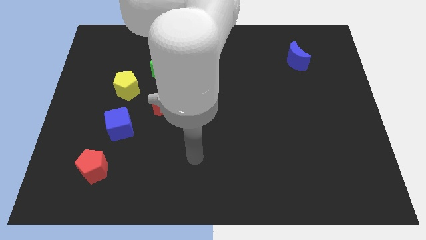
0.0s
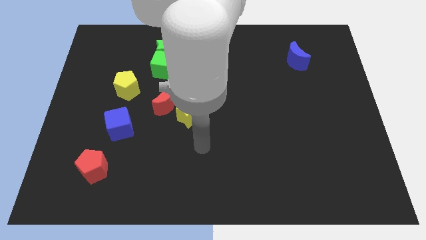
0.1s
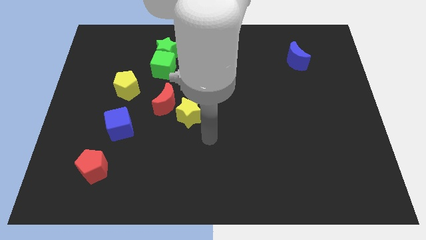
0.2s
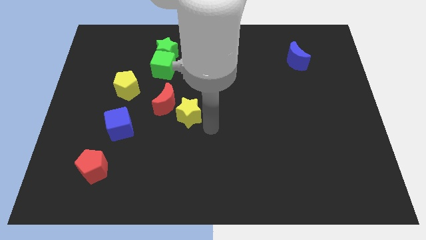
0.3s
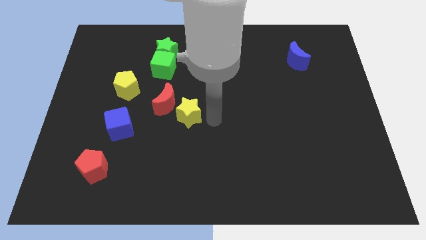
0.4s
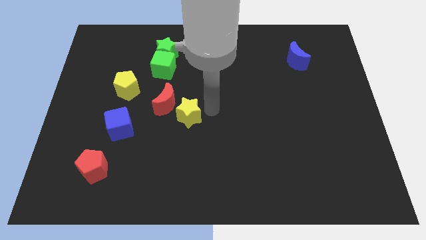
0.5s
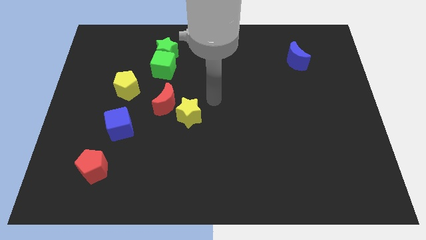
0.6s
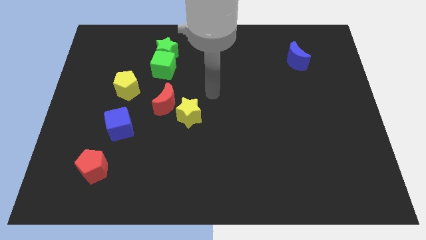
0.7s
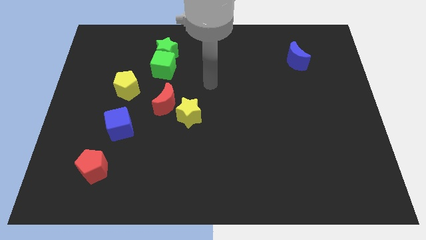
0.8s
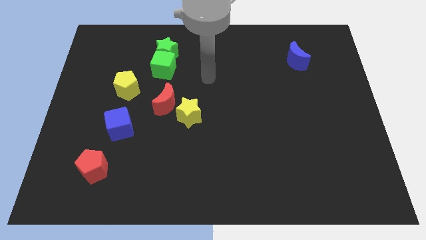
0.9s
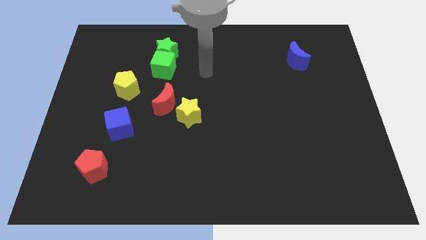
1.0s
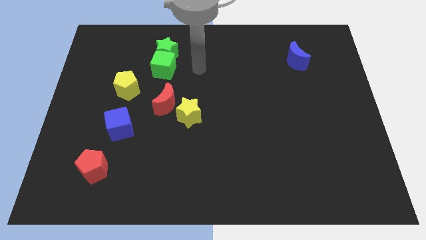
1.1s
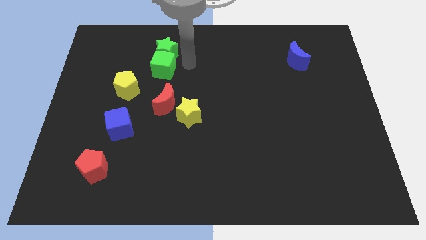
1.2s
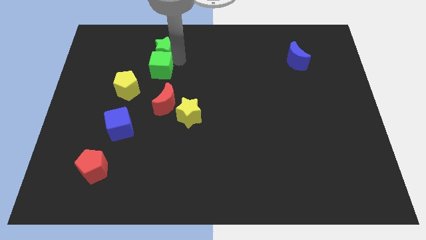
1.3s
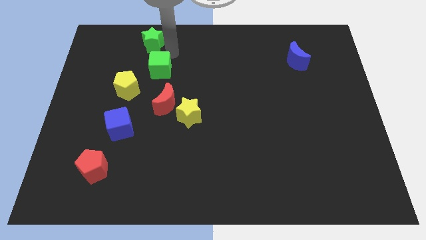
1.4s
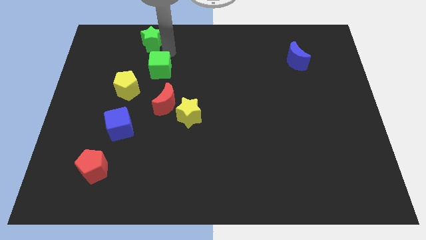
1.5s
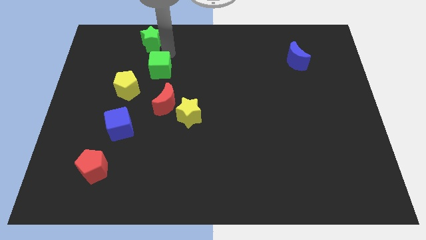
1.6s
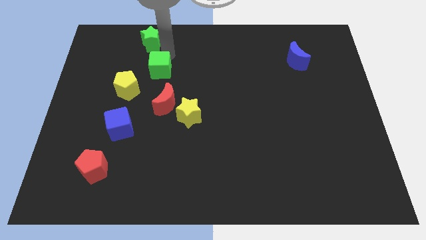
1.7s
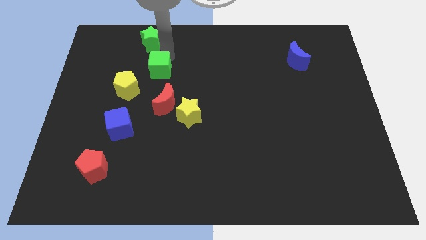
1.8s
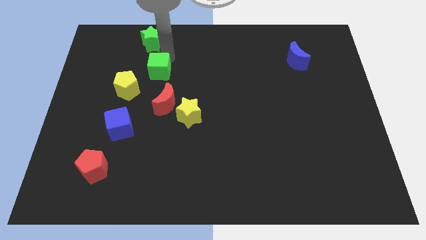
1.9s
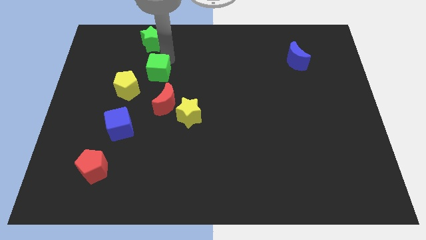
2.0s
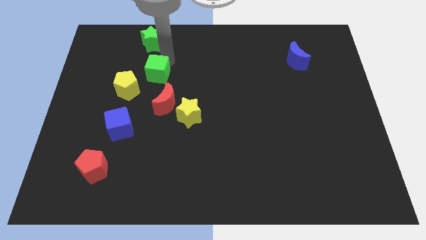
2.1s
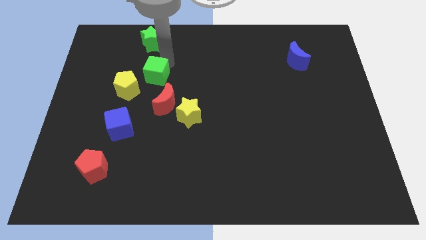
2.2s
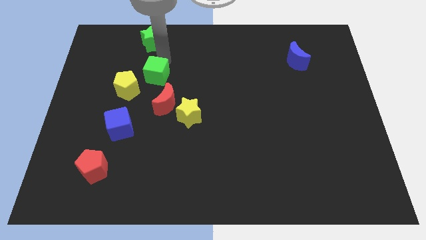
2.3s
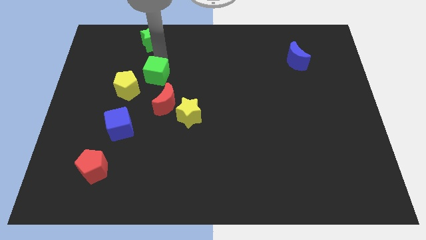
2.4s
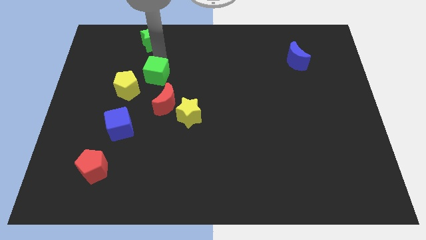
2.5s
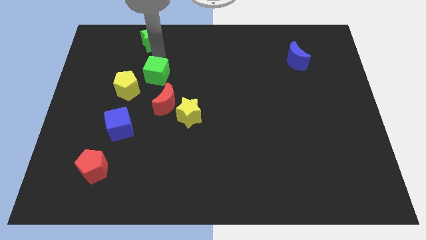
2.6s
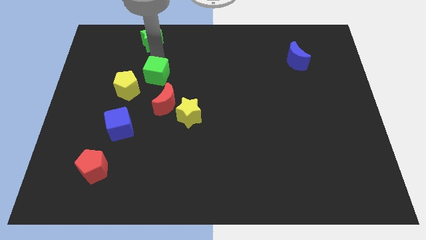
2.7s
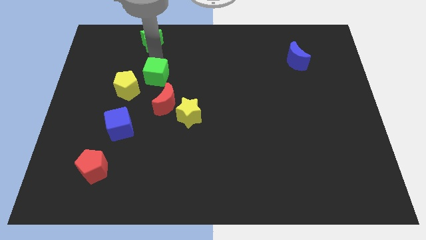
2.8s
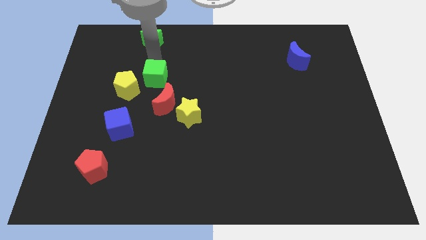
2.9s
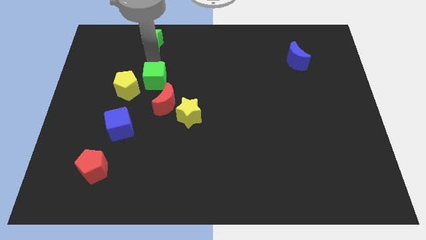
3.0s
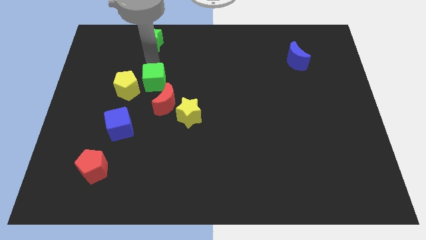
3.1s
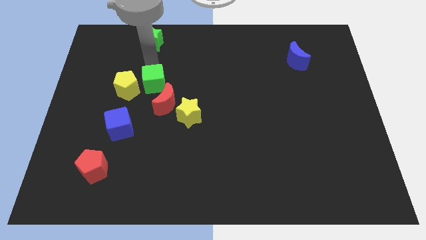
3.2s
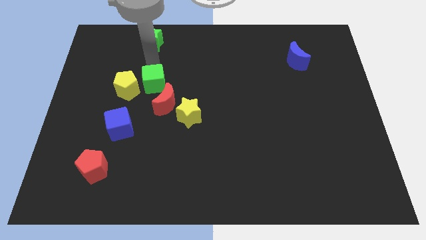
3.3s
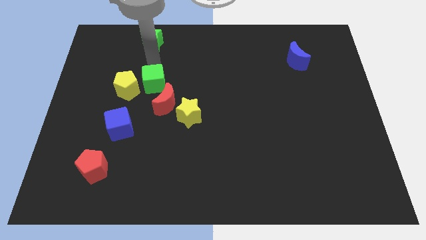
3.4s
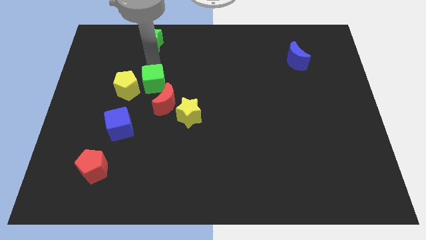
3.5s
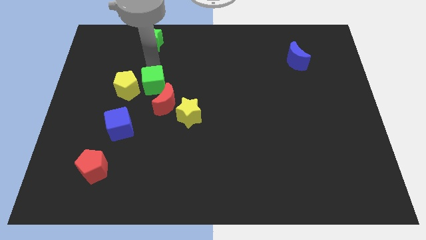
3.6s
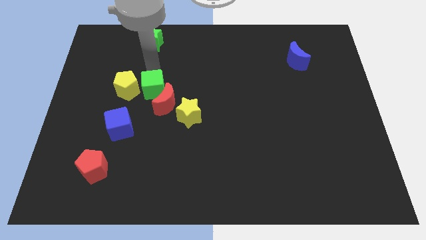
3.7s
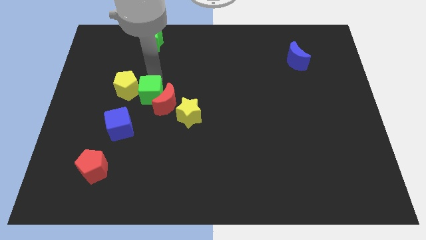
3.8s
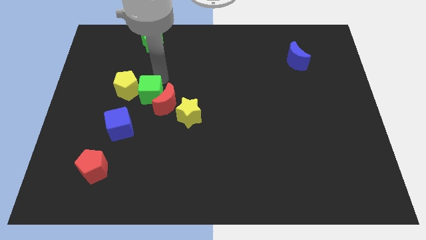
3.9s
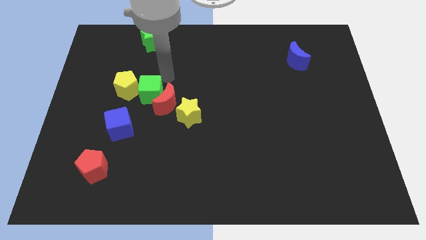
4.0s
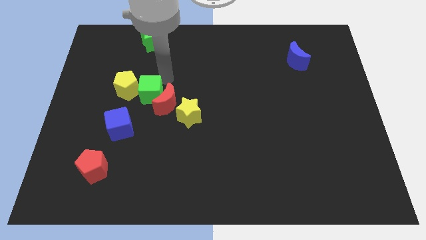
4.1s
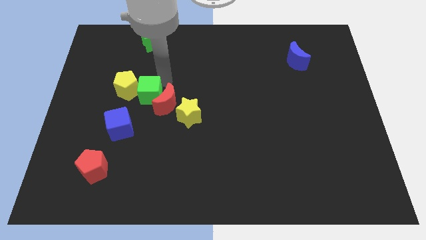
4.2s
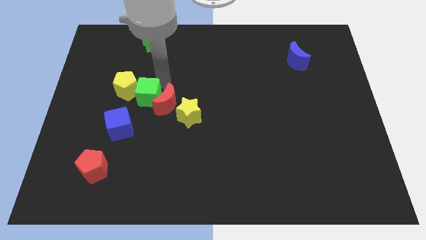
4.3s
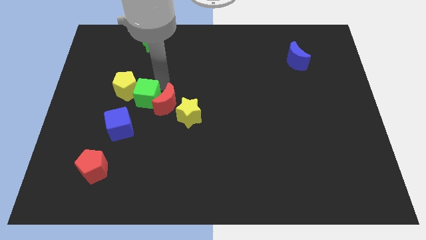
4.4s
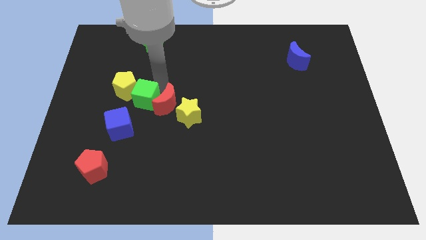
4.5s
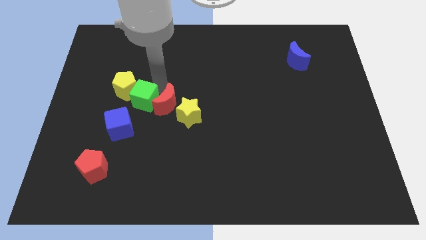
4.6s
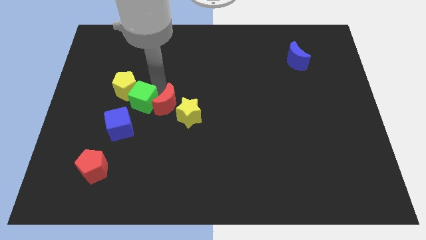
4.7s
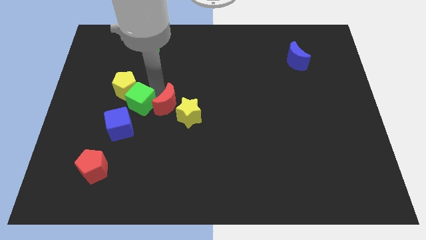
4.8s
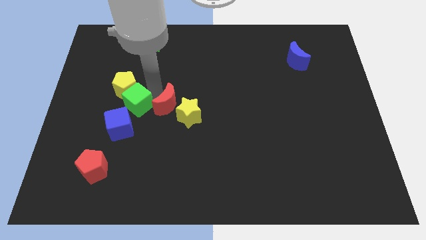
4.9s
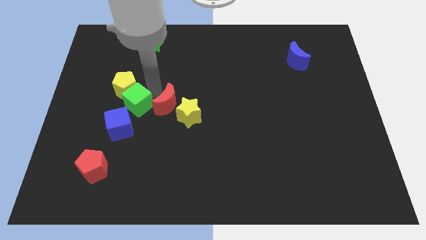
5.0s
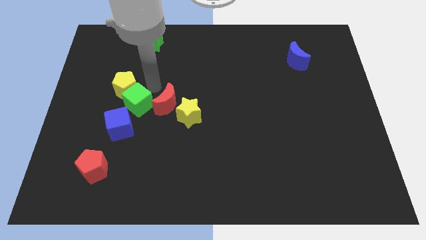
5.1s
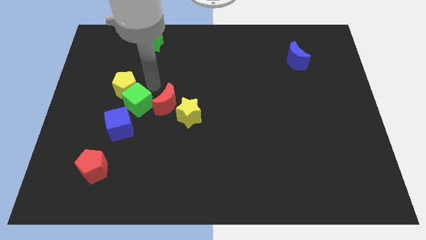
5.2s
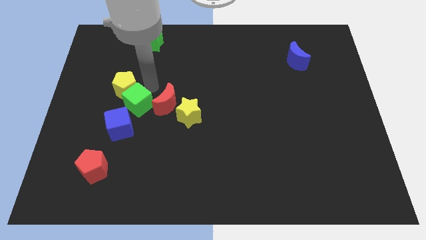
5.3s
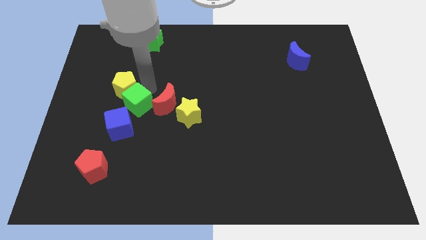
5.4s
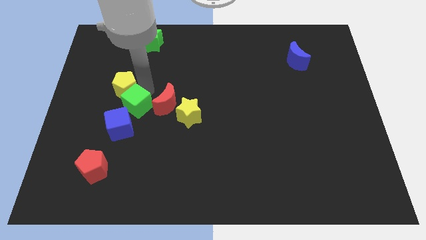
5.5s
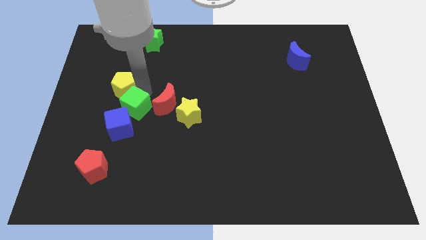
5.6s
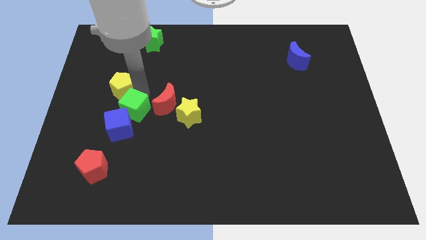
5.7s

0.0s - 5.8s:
put the green cube to the blue cube
